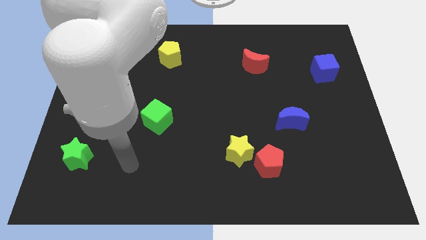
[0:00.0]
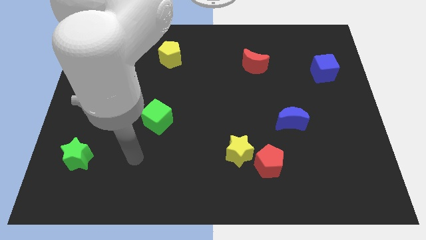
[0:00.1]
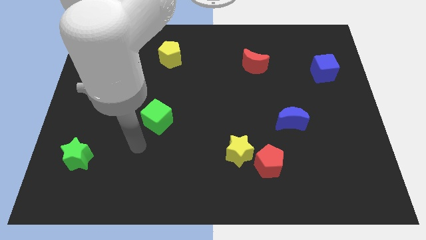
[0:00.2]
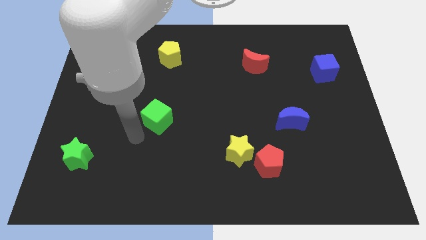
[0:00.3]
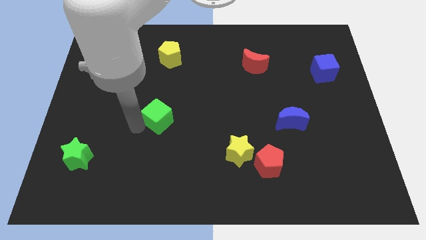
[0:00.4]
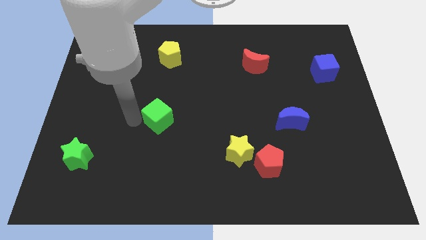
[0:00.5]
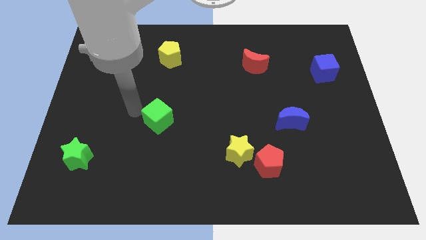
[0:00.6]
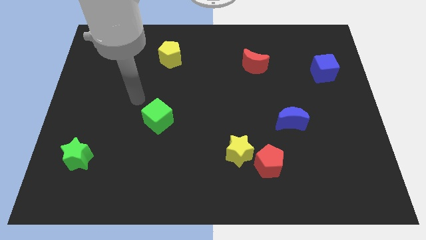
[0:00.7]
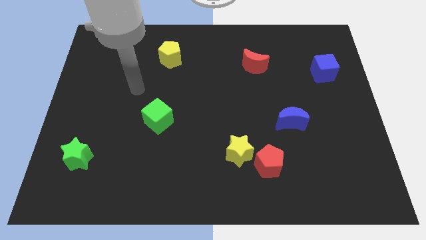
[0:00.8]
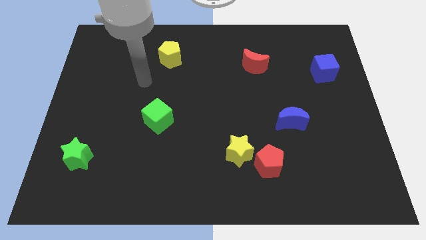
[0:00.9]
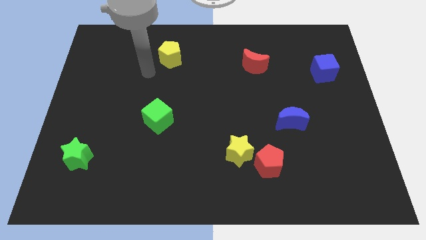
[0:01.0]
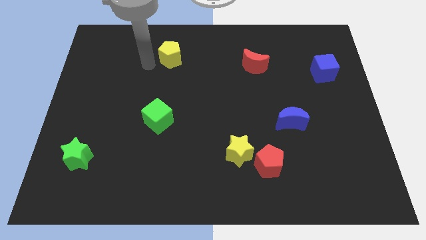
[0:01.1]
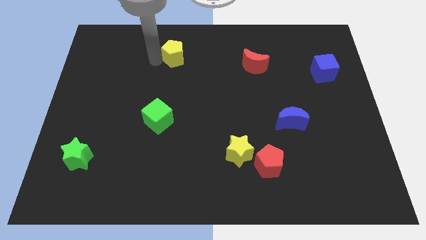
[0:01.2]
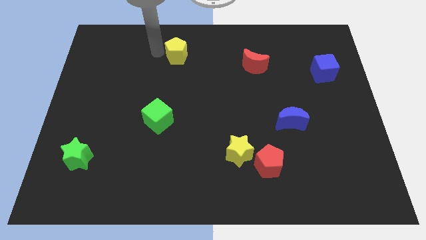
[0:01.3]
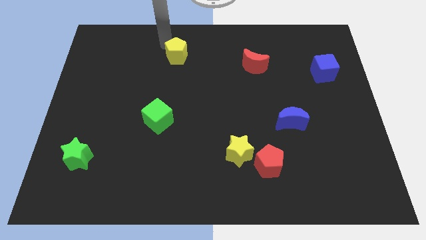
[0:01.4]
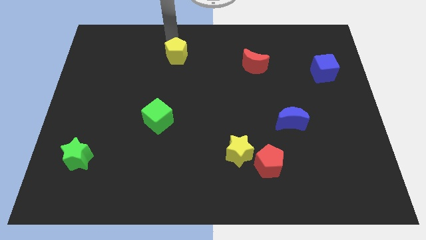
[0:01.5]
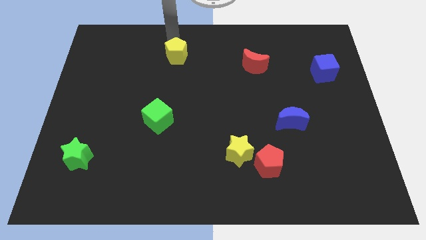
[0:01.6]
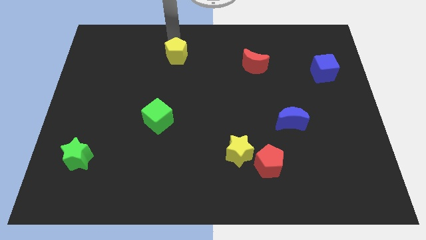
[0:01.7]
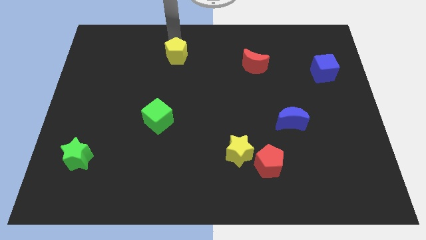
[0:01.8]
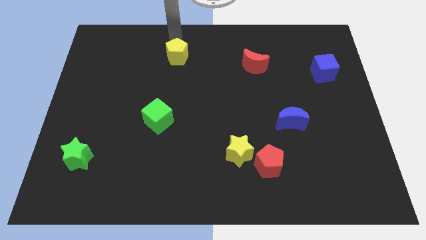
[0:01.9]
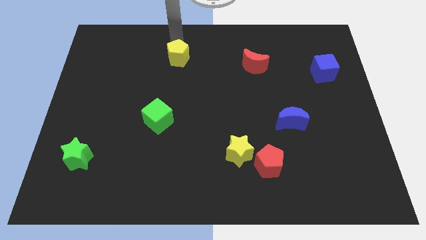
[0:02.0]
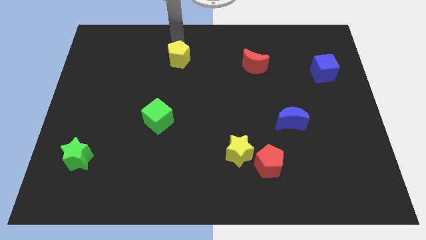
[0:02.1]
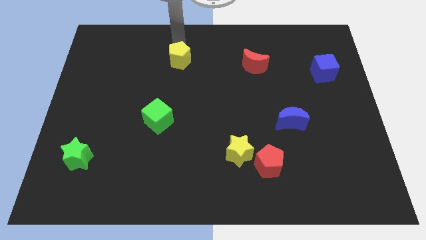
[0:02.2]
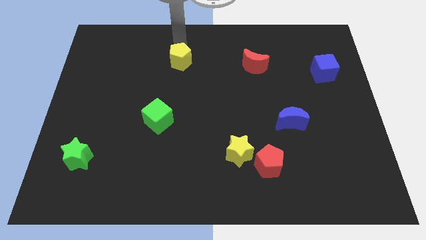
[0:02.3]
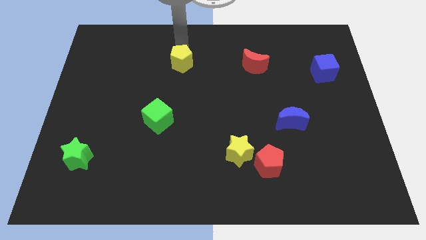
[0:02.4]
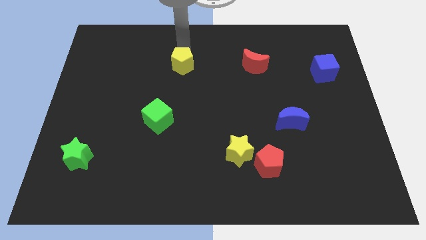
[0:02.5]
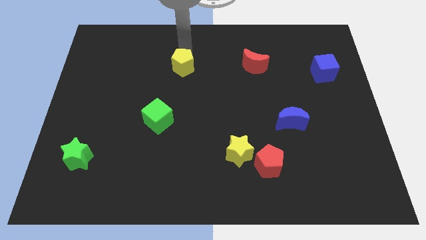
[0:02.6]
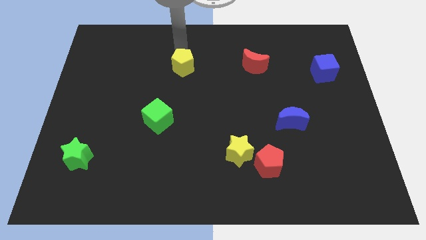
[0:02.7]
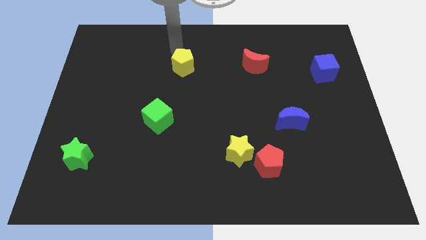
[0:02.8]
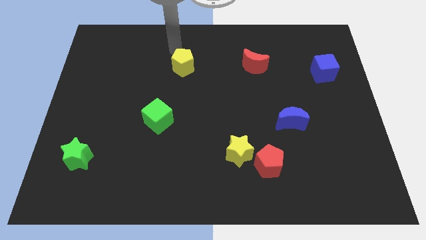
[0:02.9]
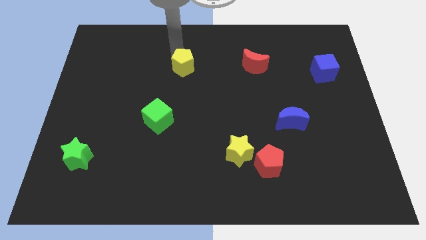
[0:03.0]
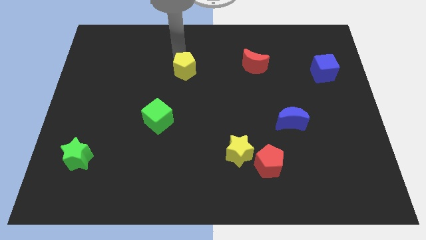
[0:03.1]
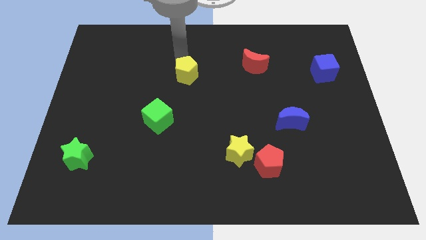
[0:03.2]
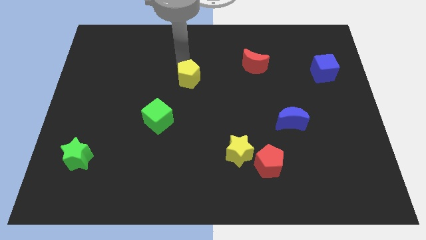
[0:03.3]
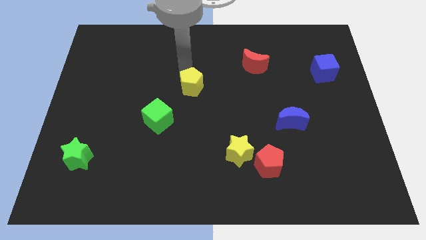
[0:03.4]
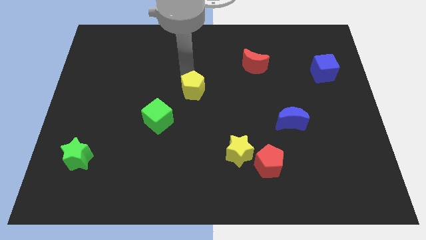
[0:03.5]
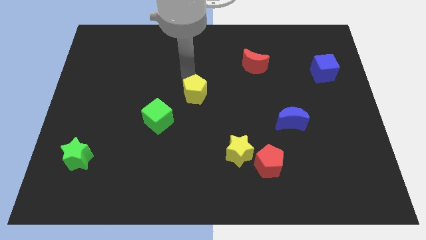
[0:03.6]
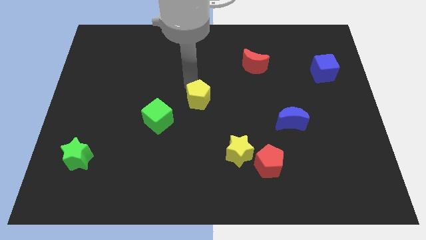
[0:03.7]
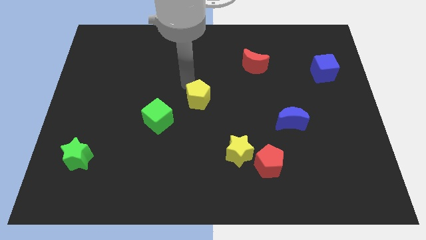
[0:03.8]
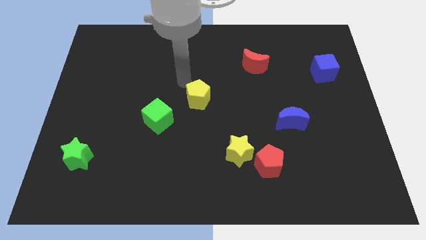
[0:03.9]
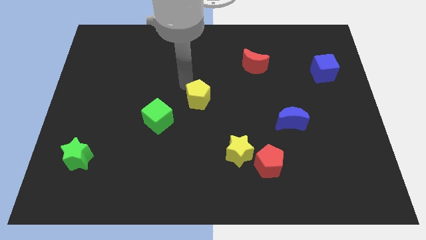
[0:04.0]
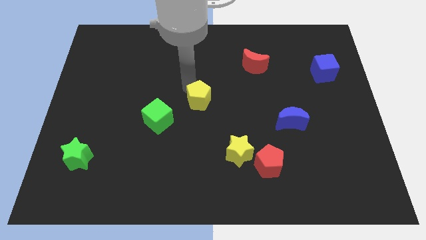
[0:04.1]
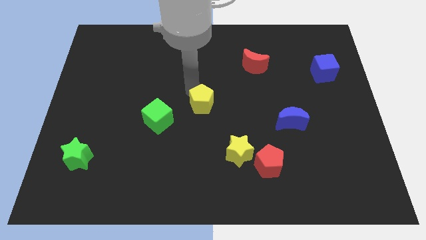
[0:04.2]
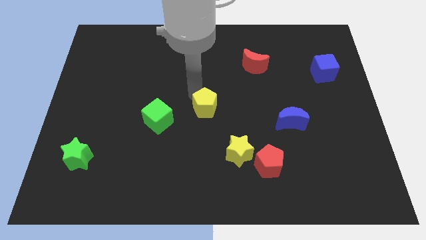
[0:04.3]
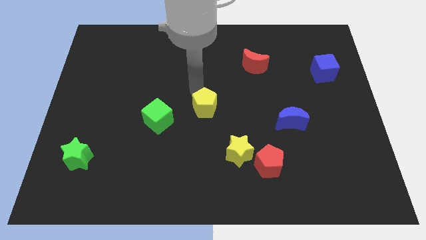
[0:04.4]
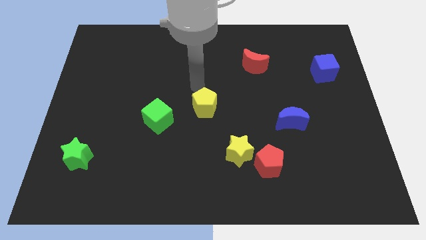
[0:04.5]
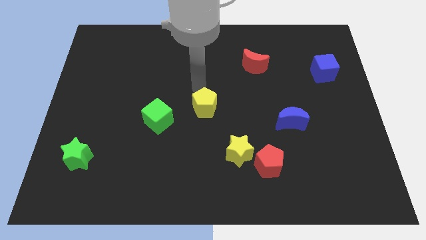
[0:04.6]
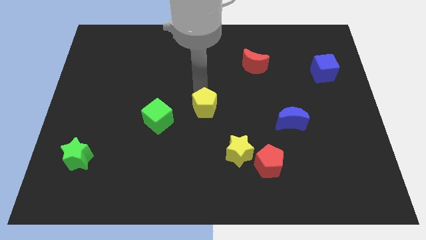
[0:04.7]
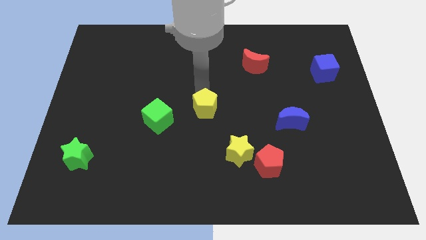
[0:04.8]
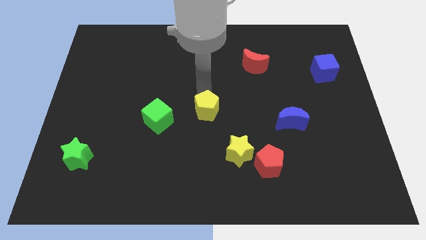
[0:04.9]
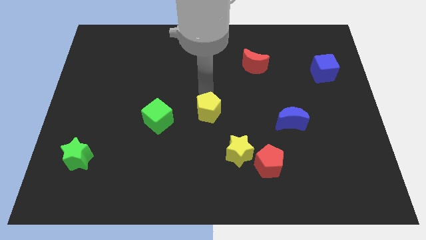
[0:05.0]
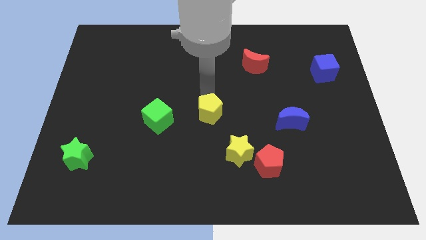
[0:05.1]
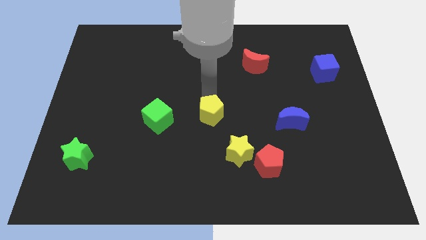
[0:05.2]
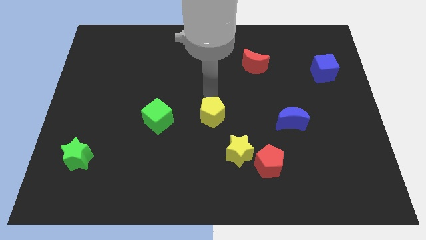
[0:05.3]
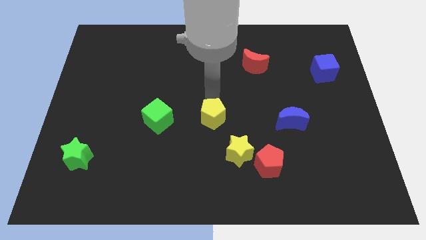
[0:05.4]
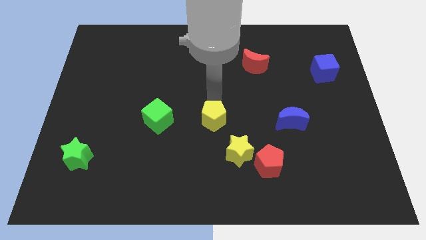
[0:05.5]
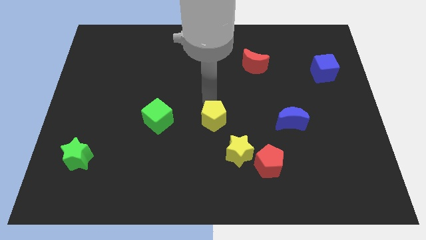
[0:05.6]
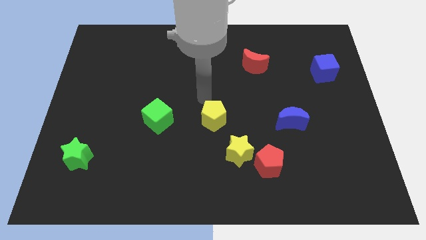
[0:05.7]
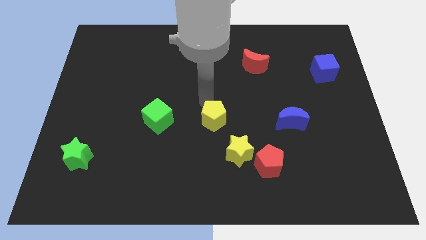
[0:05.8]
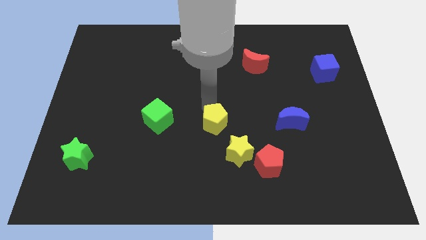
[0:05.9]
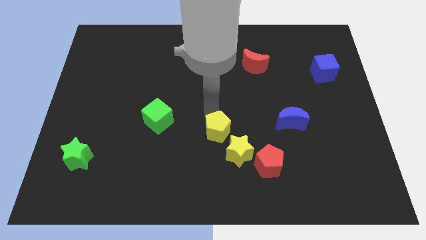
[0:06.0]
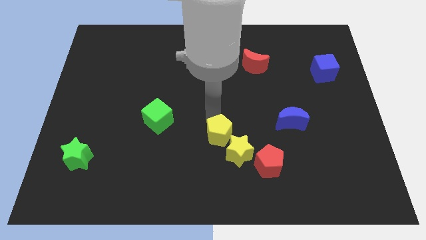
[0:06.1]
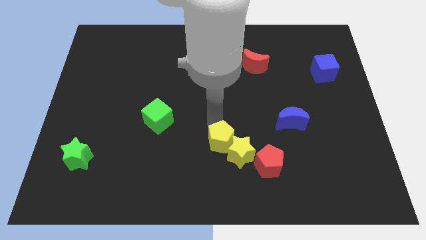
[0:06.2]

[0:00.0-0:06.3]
move the yellow pentagon next to the yellow star

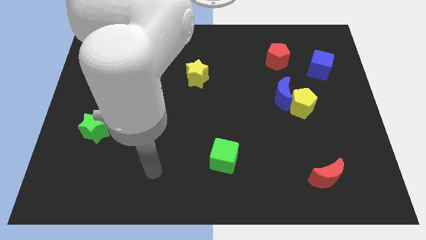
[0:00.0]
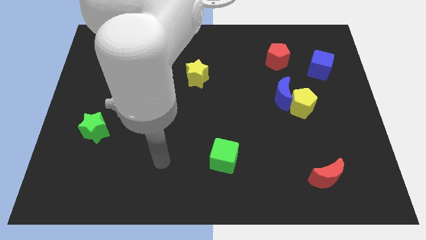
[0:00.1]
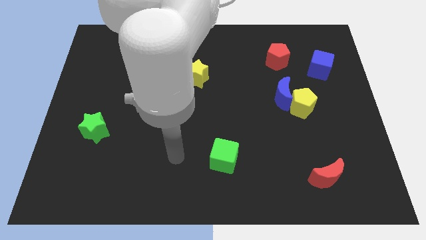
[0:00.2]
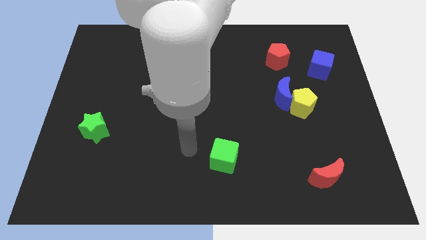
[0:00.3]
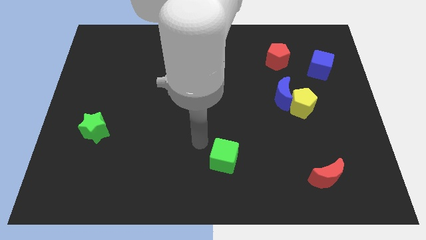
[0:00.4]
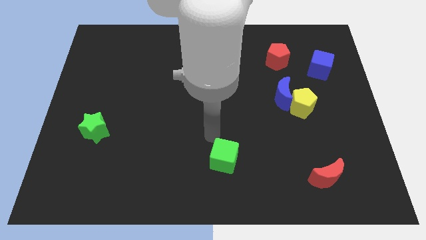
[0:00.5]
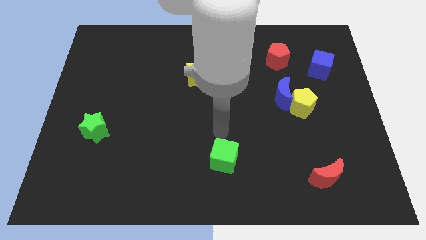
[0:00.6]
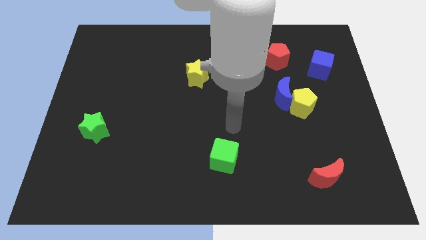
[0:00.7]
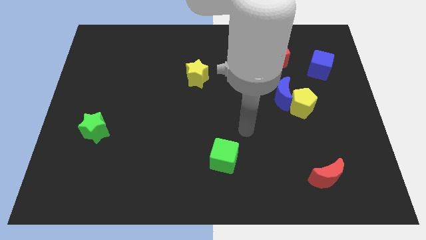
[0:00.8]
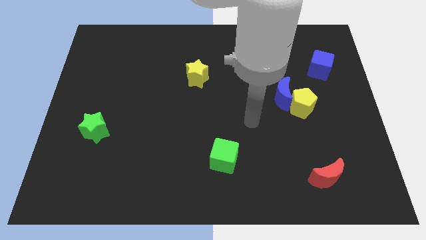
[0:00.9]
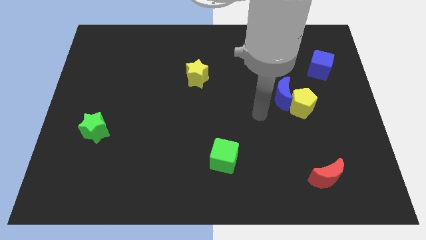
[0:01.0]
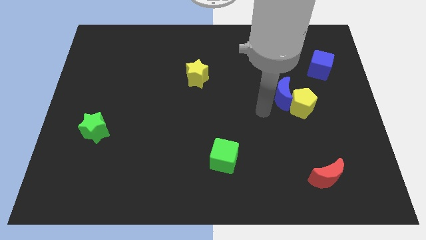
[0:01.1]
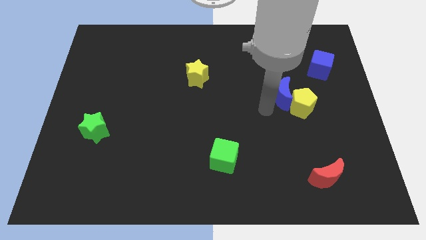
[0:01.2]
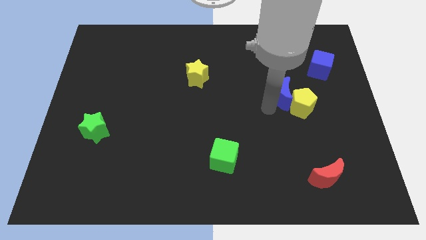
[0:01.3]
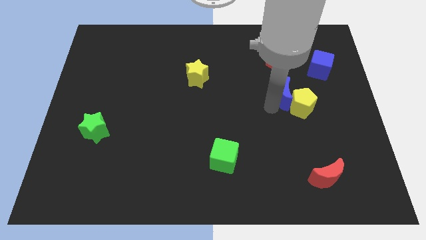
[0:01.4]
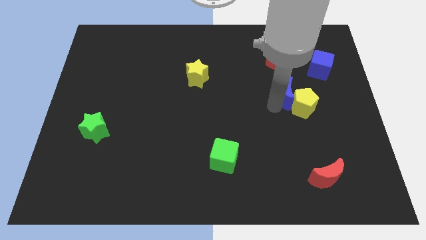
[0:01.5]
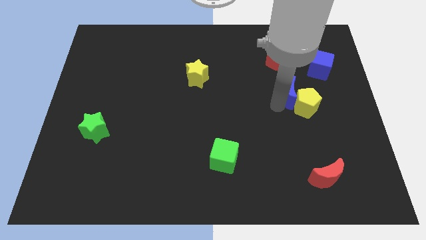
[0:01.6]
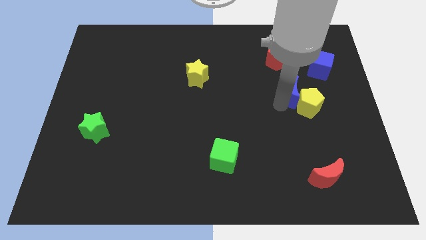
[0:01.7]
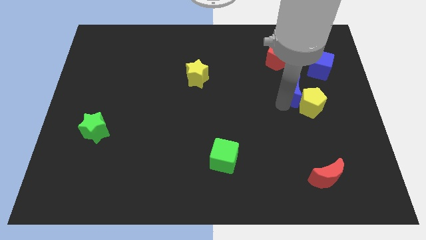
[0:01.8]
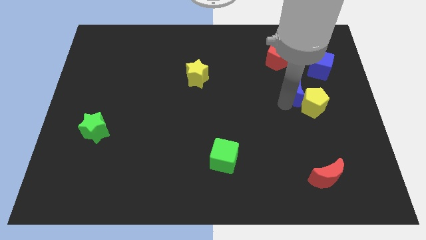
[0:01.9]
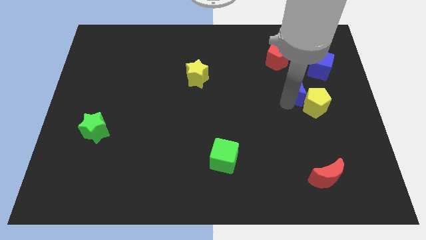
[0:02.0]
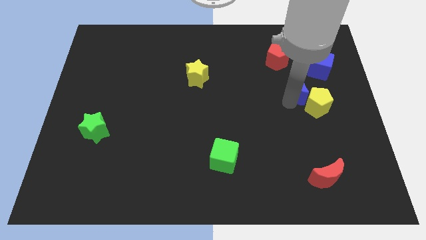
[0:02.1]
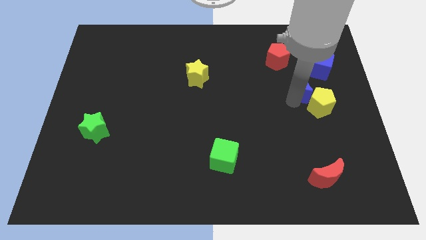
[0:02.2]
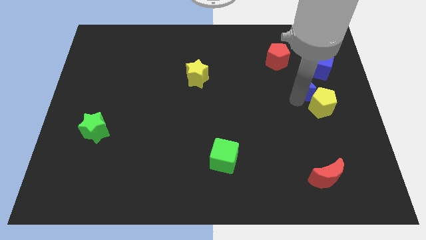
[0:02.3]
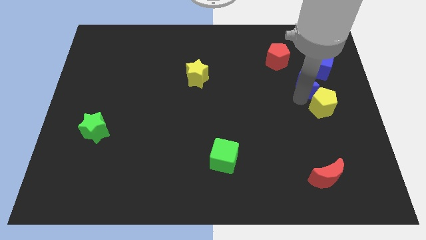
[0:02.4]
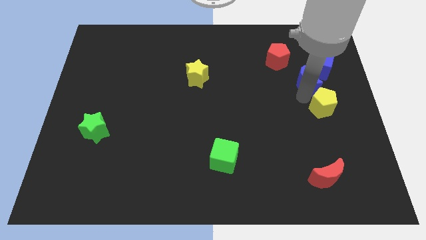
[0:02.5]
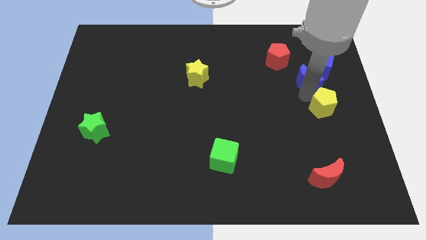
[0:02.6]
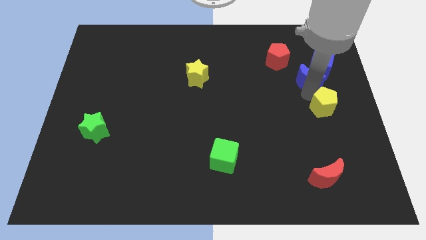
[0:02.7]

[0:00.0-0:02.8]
put the blue moon next to the blue cube
